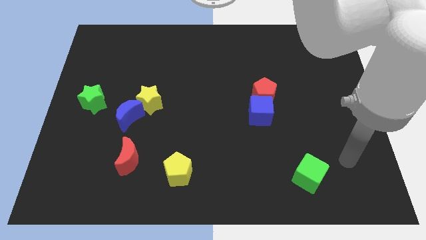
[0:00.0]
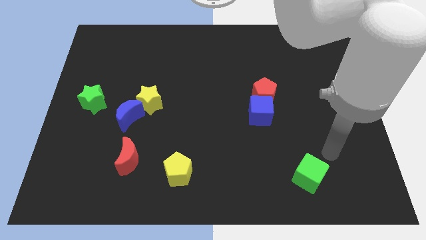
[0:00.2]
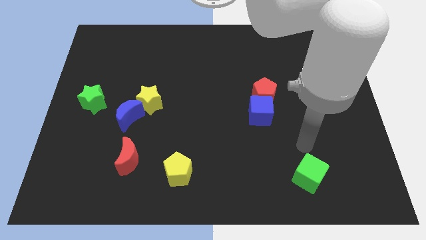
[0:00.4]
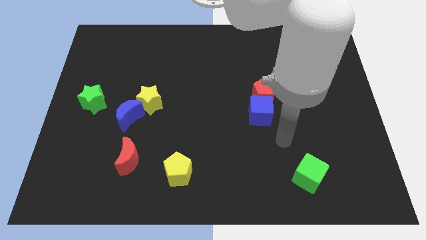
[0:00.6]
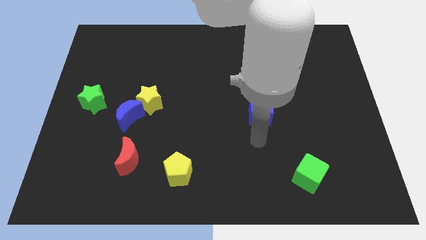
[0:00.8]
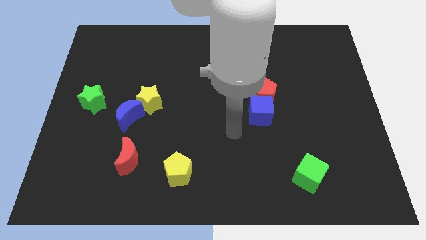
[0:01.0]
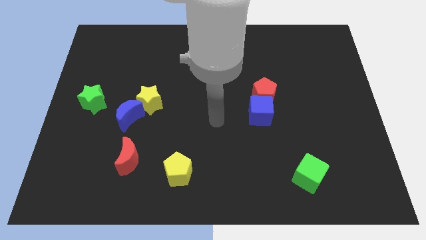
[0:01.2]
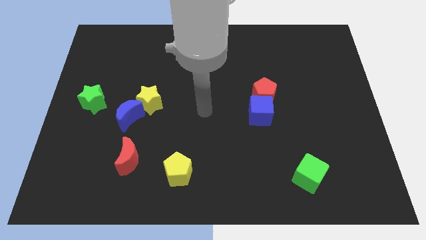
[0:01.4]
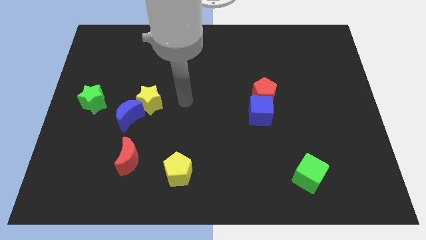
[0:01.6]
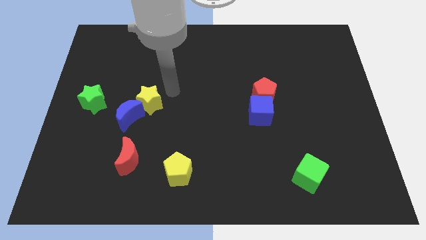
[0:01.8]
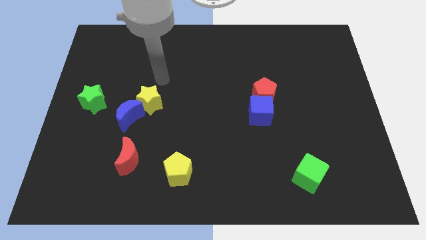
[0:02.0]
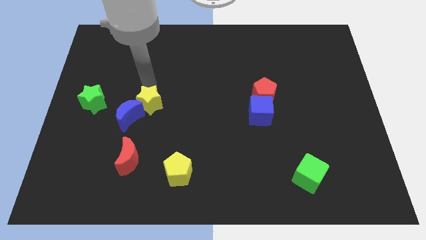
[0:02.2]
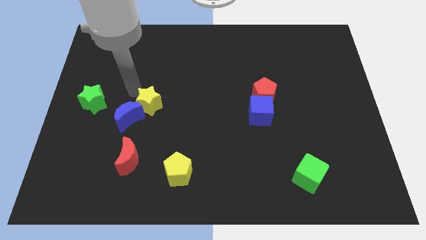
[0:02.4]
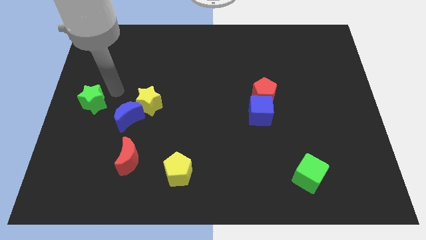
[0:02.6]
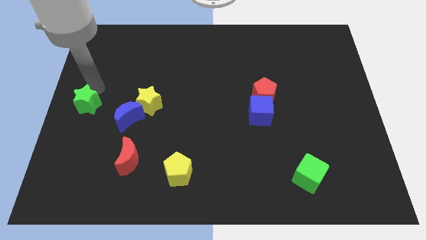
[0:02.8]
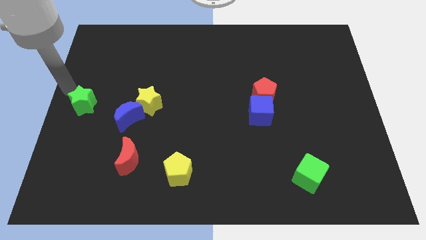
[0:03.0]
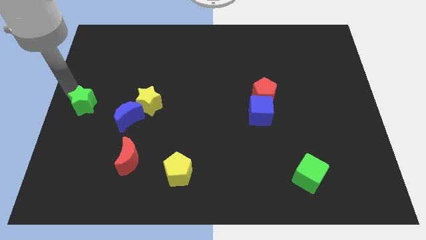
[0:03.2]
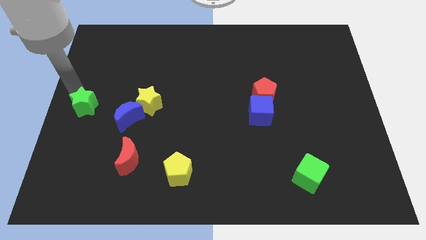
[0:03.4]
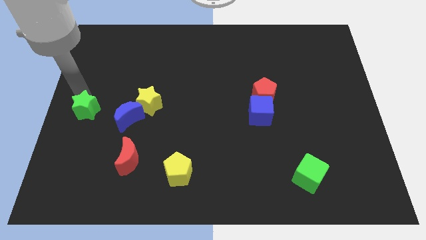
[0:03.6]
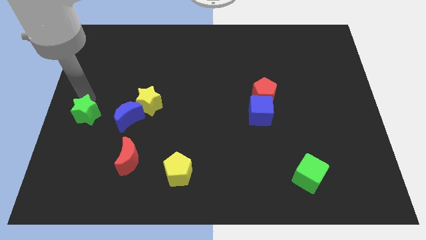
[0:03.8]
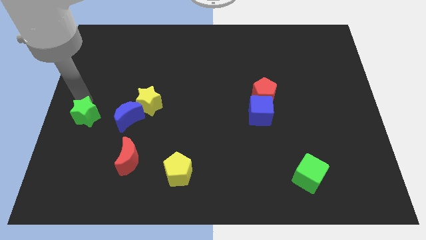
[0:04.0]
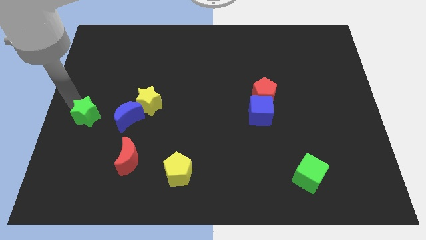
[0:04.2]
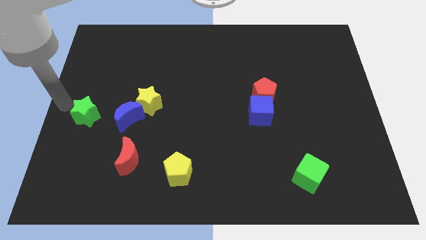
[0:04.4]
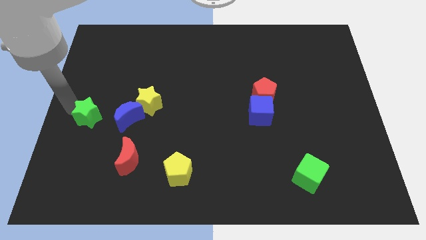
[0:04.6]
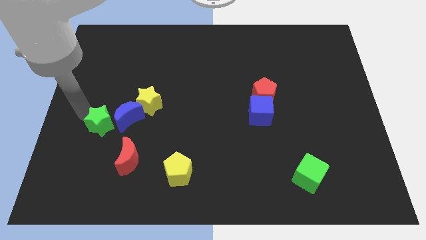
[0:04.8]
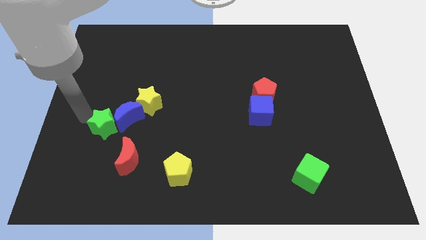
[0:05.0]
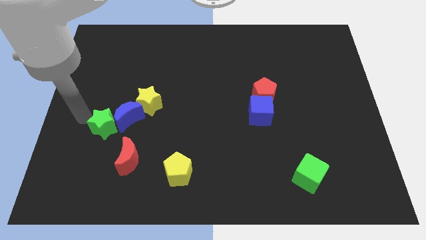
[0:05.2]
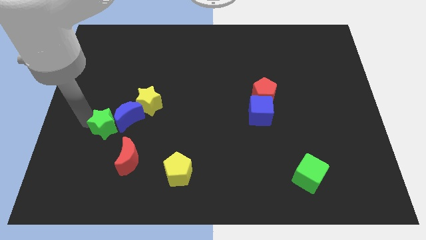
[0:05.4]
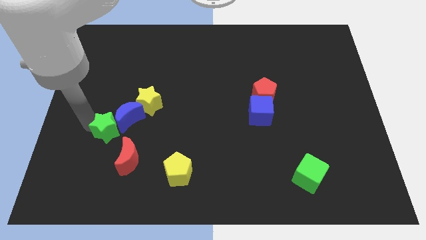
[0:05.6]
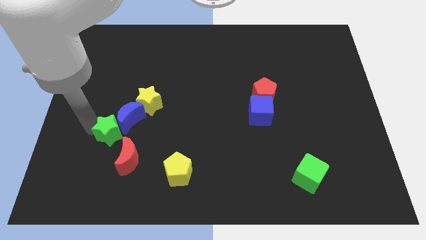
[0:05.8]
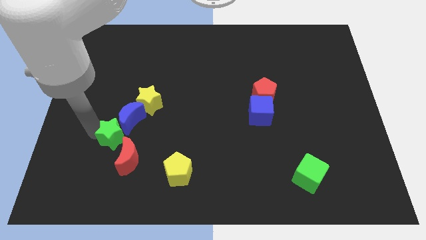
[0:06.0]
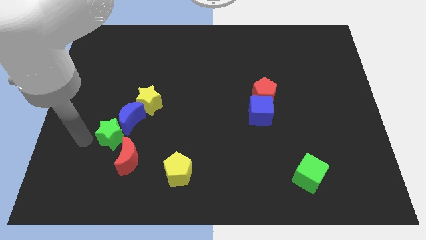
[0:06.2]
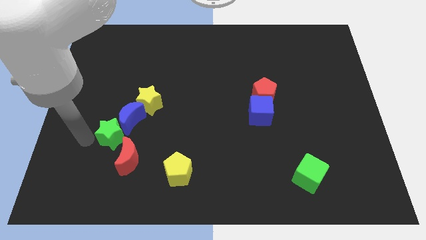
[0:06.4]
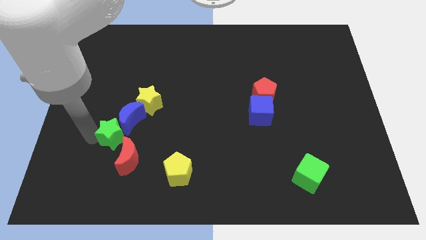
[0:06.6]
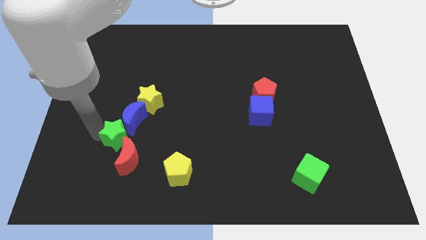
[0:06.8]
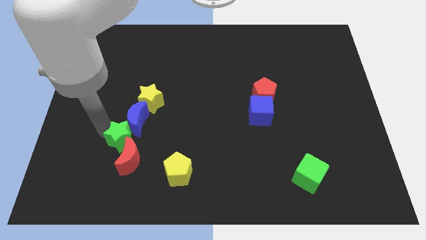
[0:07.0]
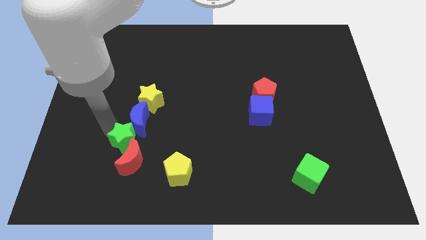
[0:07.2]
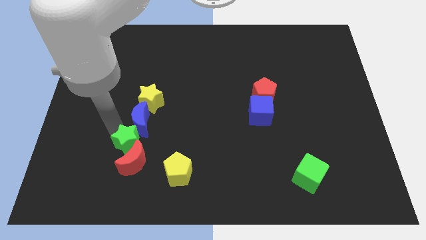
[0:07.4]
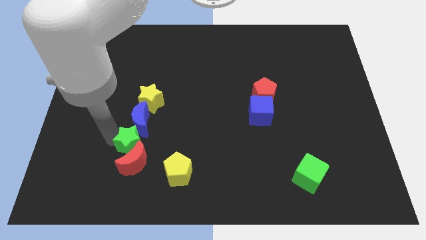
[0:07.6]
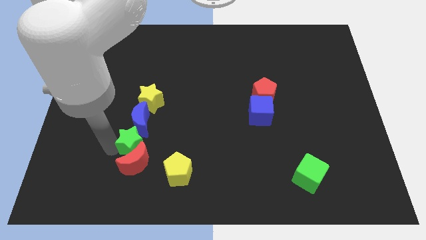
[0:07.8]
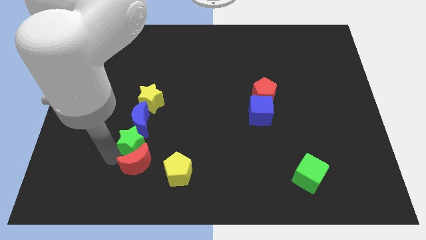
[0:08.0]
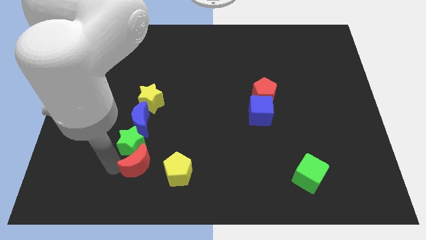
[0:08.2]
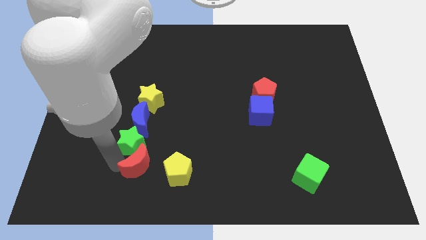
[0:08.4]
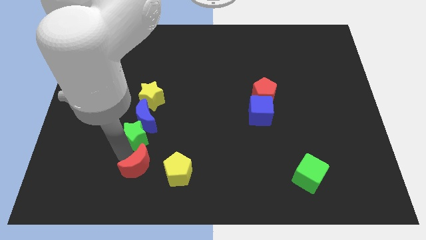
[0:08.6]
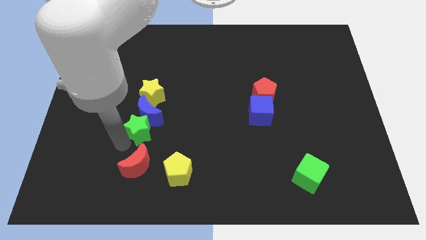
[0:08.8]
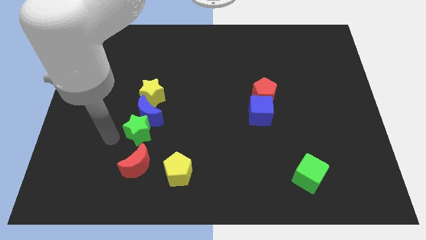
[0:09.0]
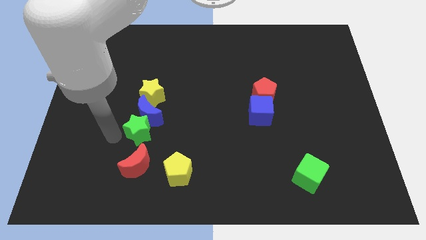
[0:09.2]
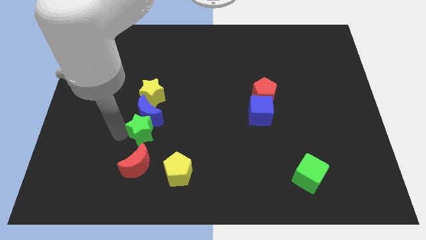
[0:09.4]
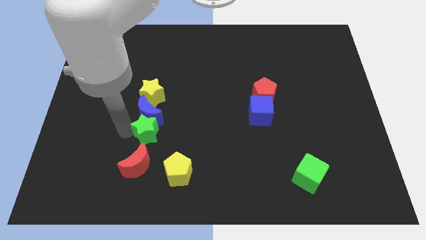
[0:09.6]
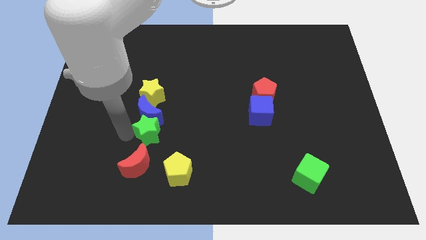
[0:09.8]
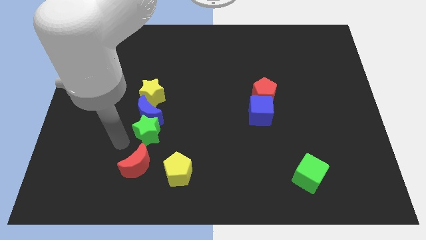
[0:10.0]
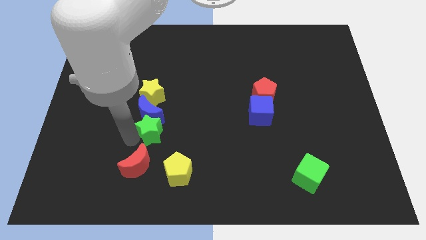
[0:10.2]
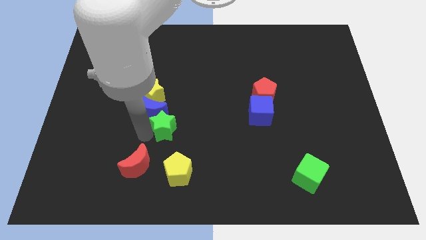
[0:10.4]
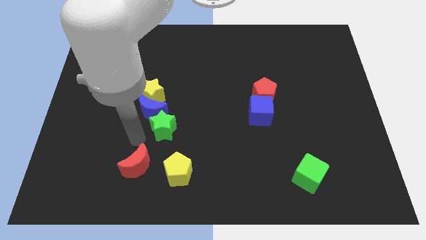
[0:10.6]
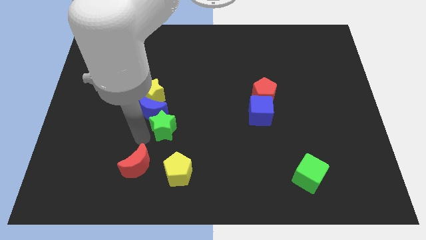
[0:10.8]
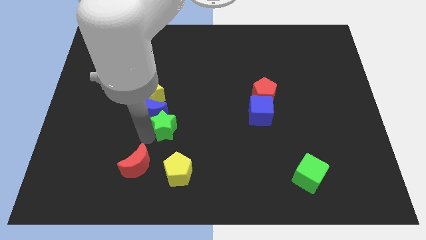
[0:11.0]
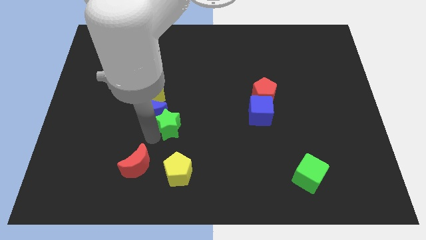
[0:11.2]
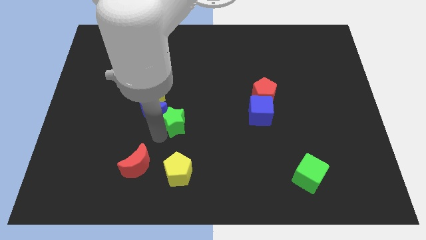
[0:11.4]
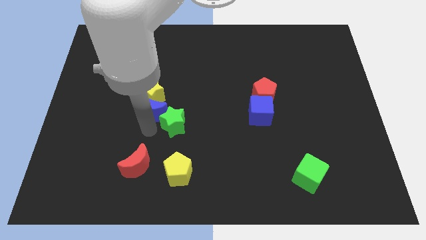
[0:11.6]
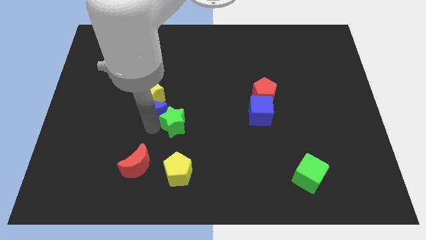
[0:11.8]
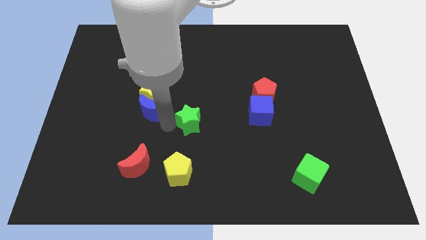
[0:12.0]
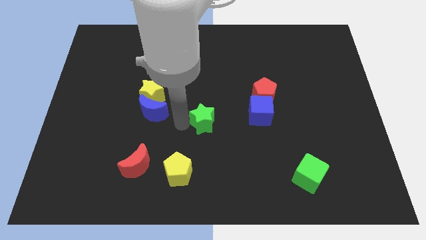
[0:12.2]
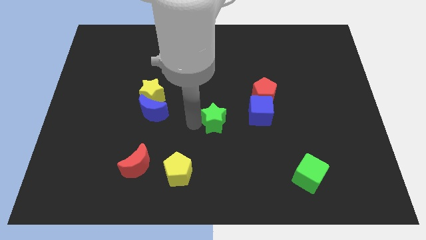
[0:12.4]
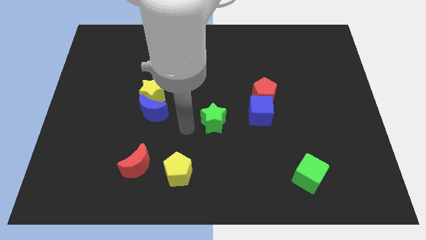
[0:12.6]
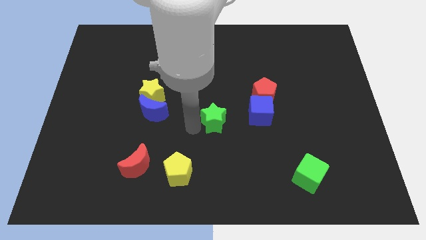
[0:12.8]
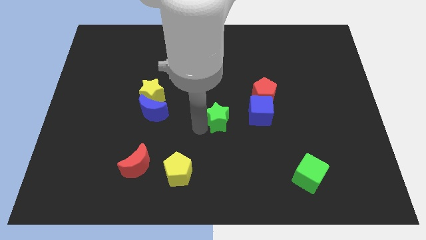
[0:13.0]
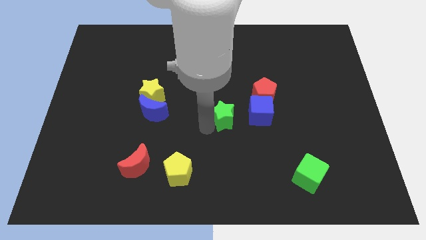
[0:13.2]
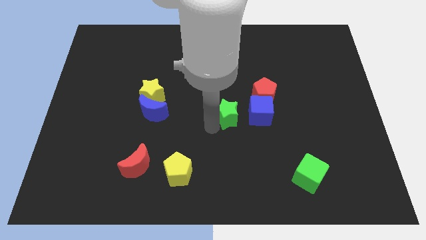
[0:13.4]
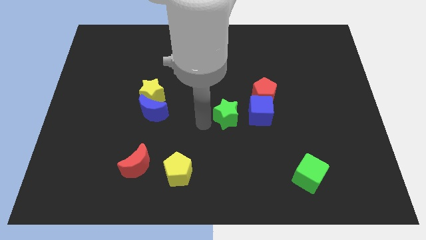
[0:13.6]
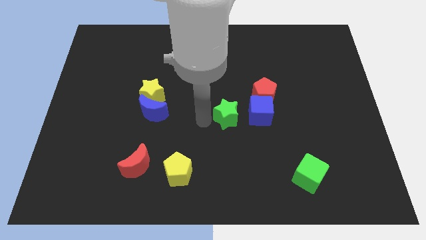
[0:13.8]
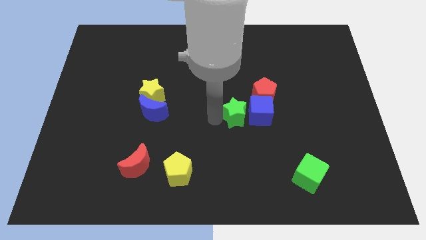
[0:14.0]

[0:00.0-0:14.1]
move the green star towards the blue cube
